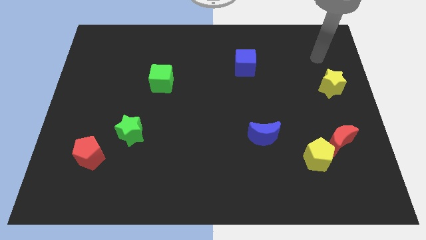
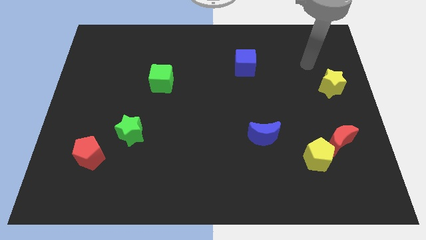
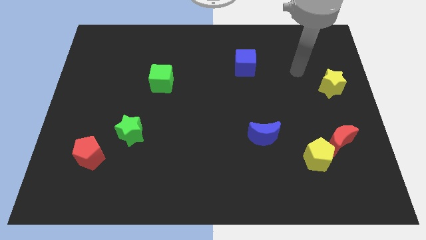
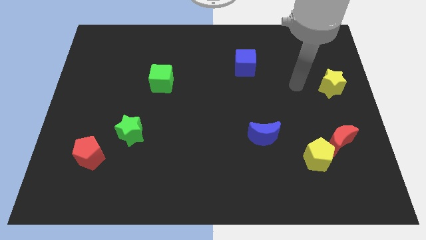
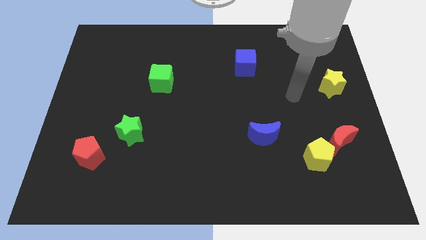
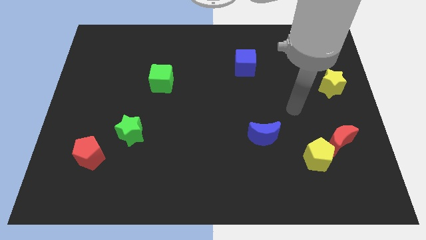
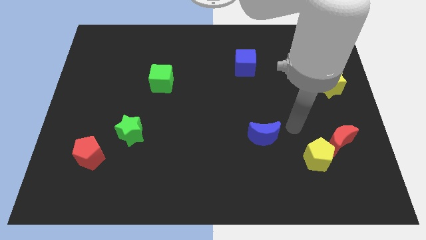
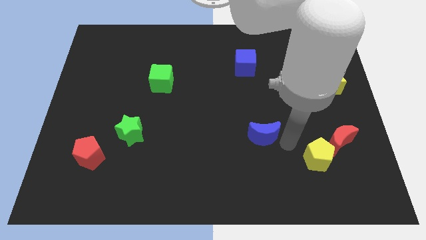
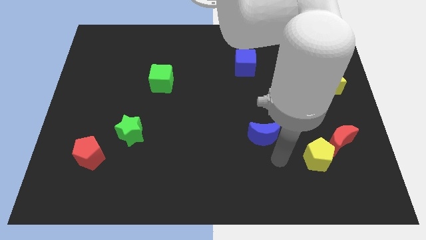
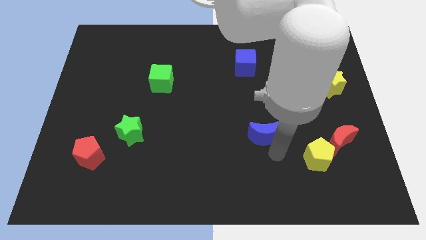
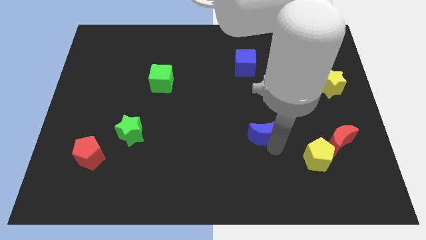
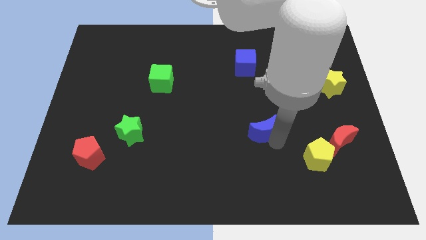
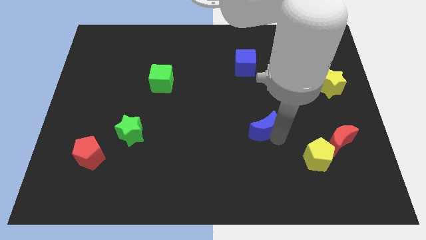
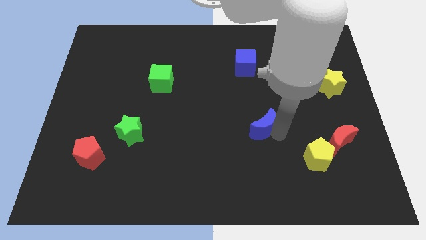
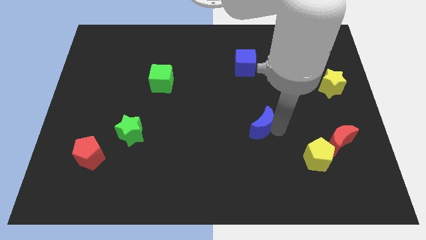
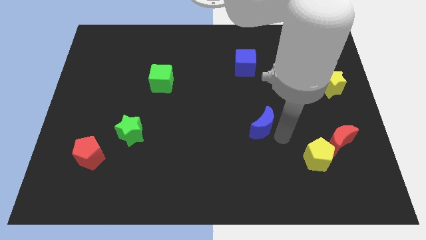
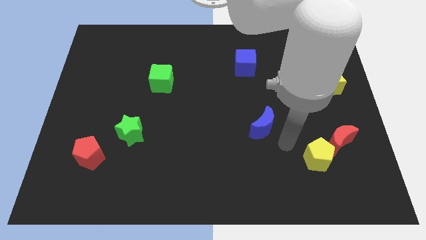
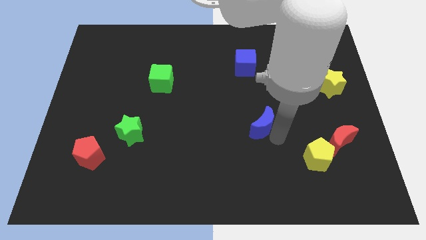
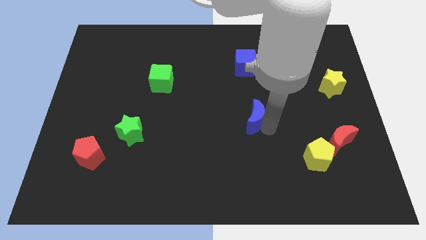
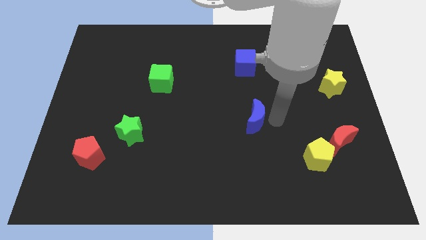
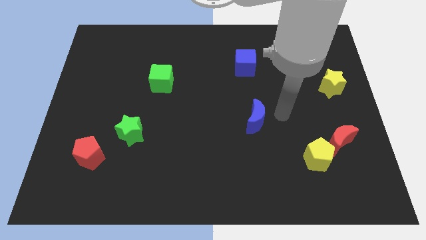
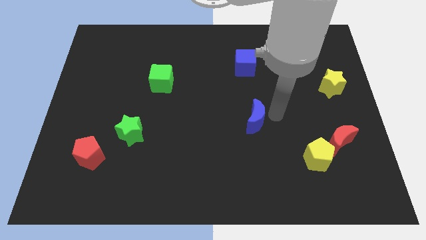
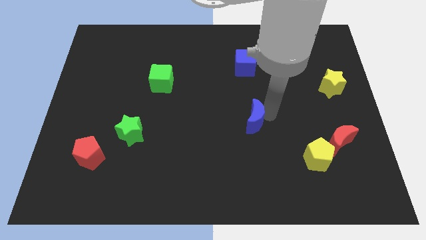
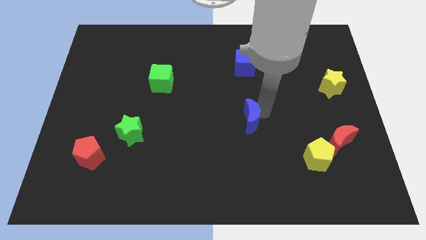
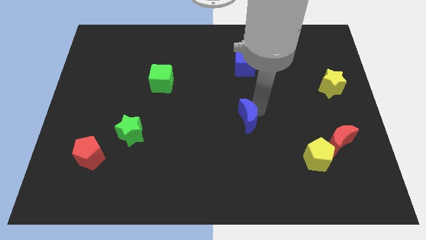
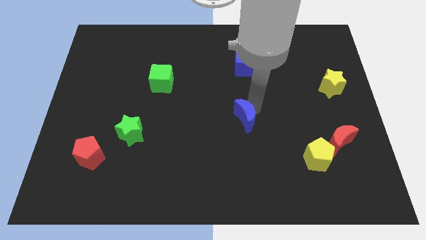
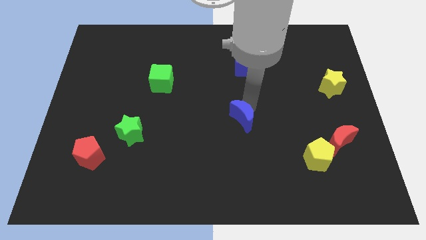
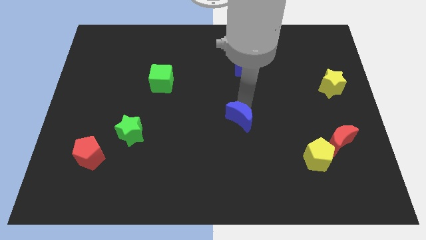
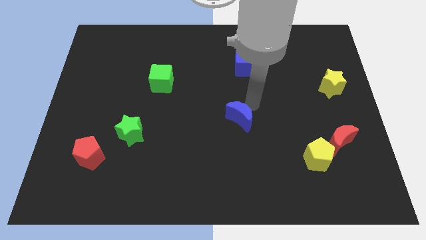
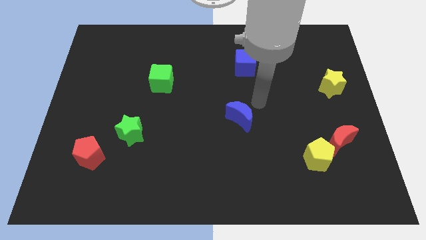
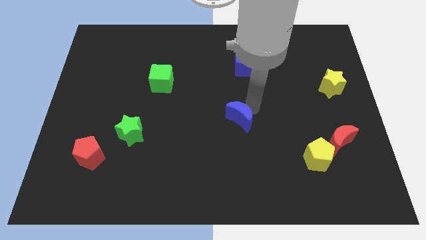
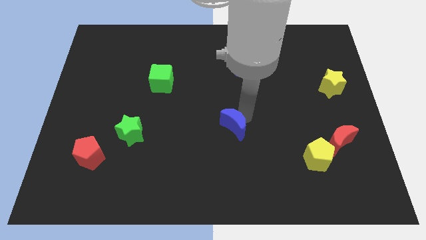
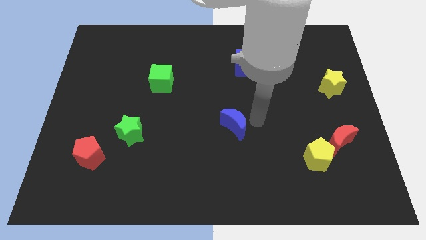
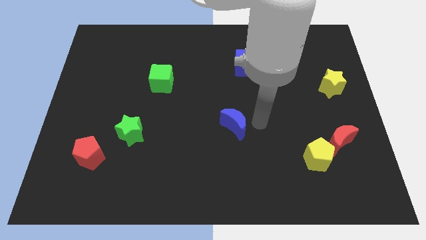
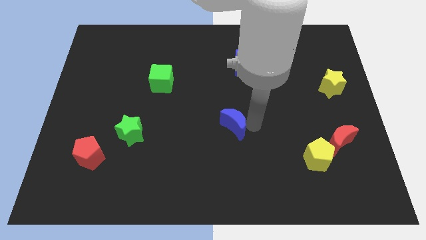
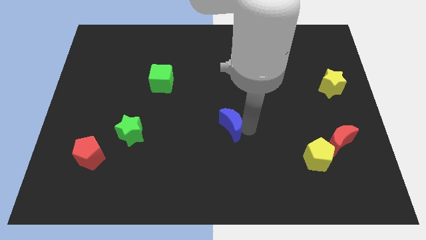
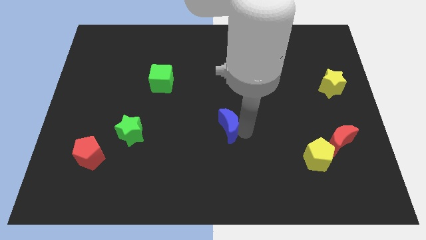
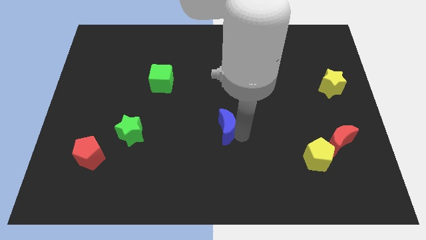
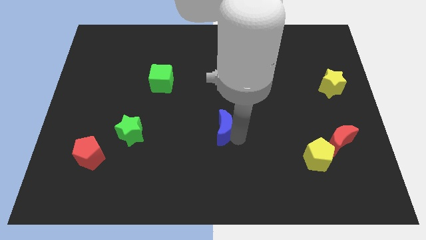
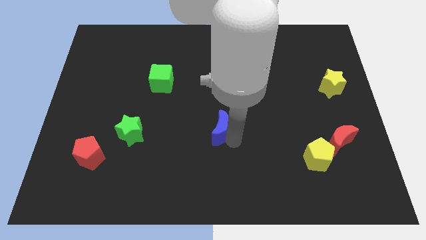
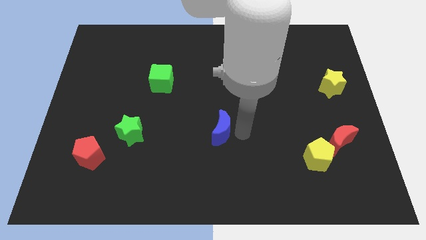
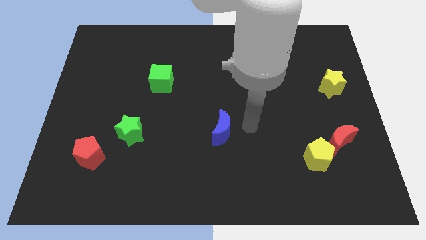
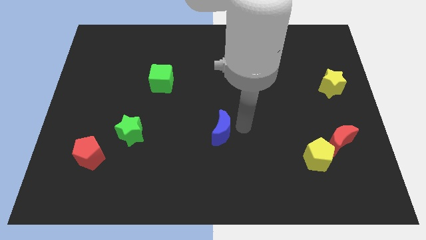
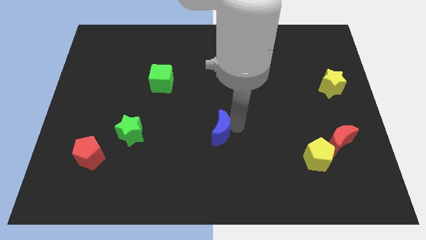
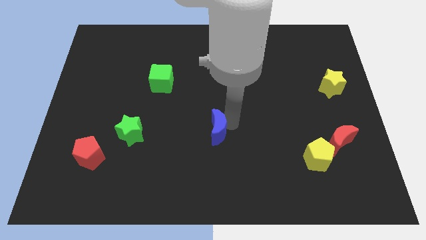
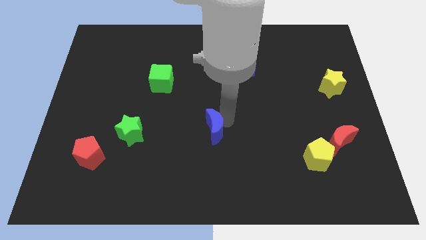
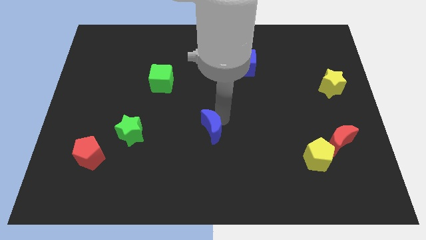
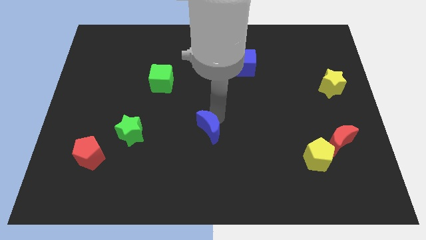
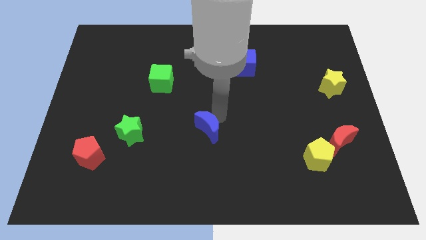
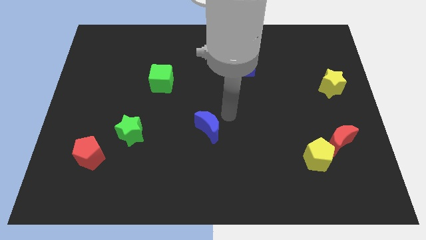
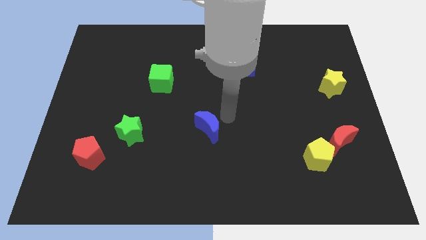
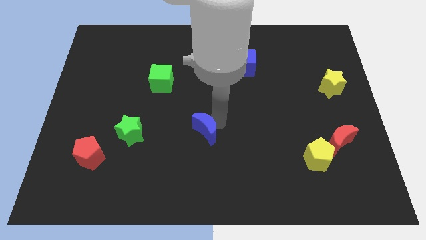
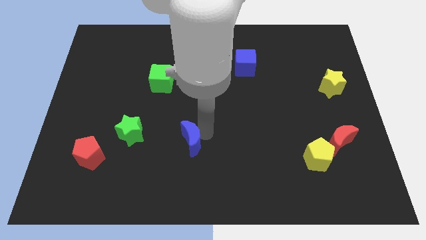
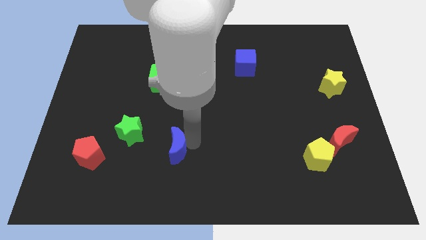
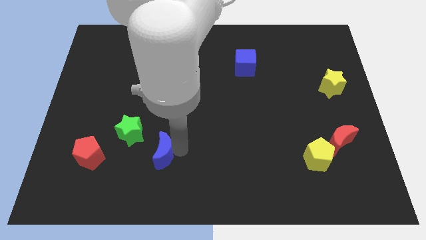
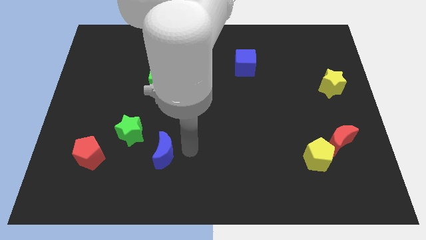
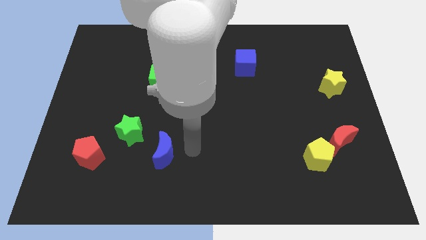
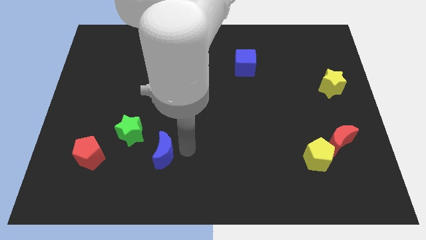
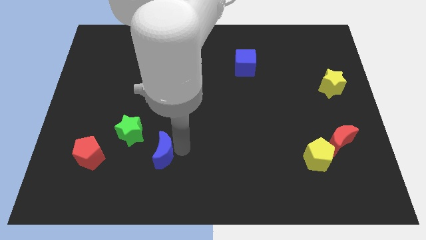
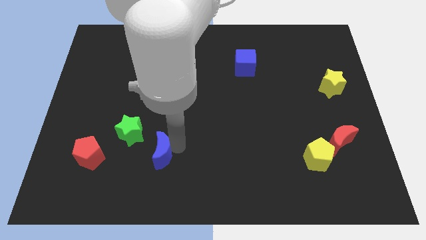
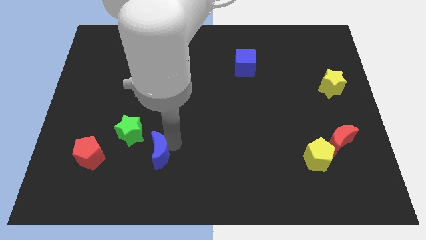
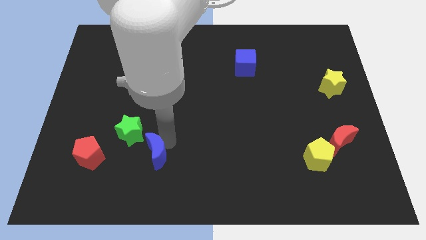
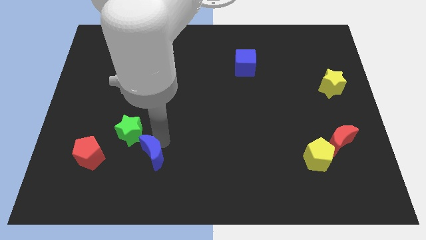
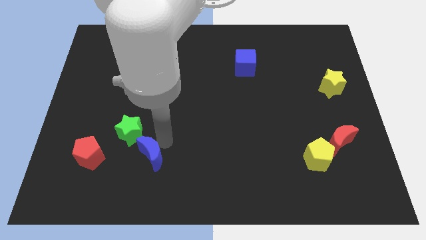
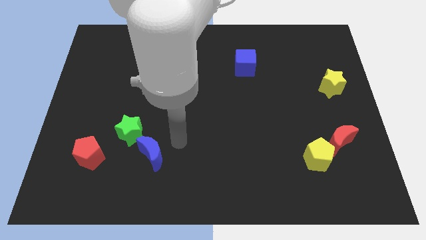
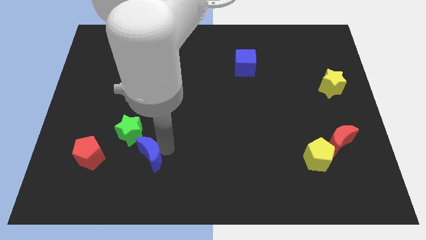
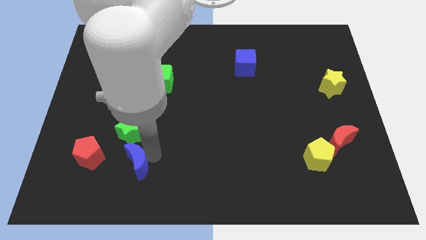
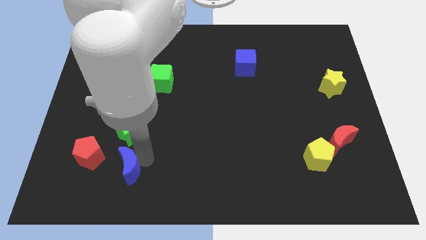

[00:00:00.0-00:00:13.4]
push the blue moon to the bottom right side of the red pentagon

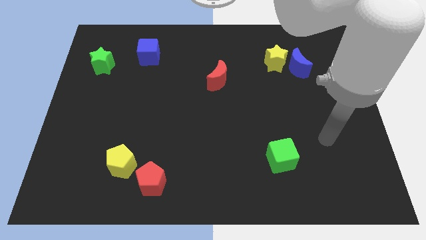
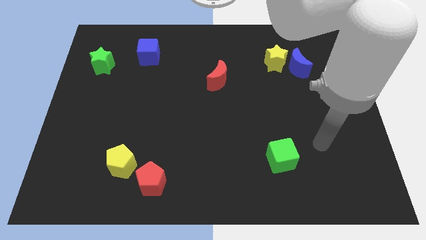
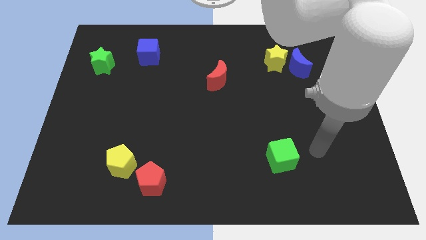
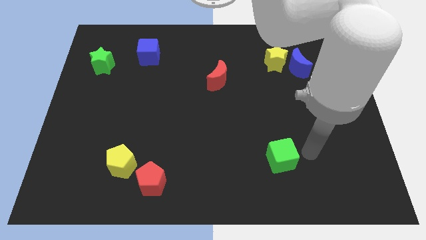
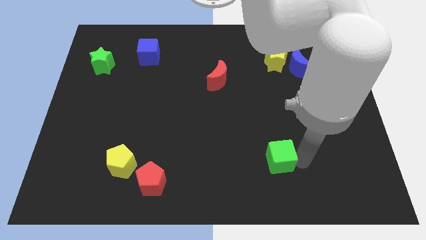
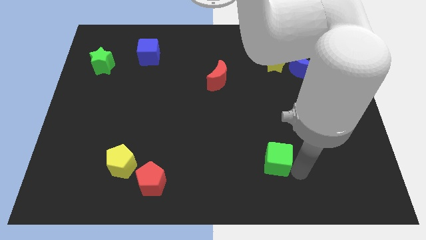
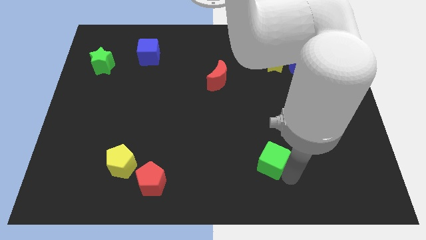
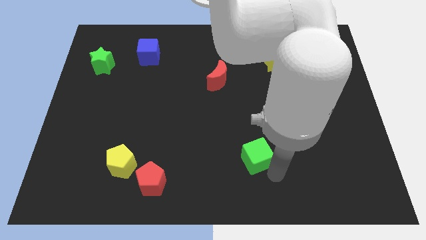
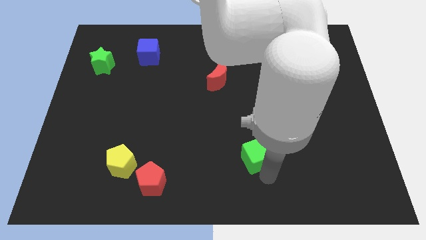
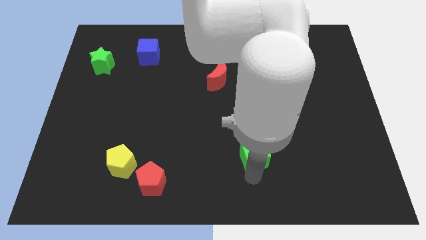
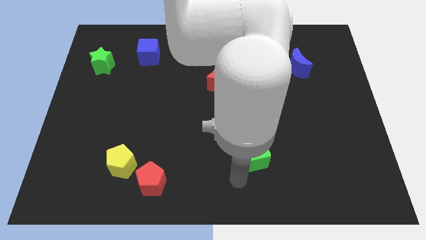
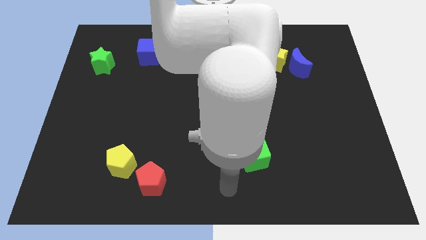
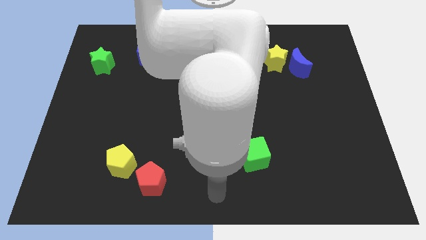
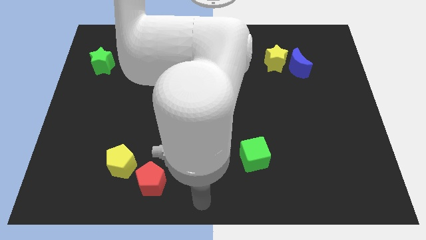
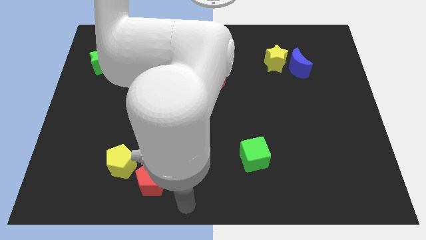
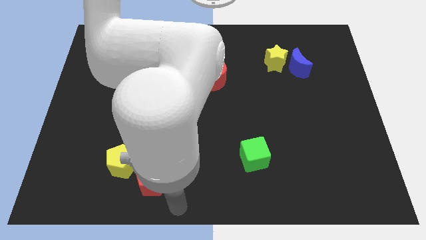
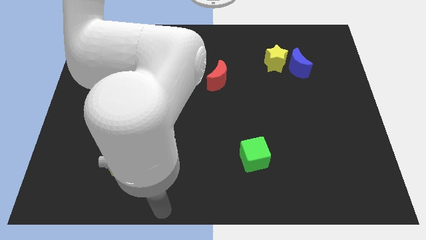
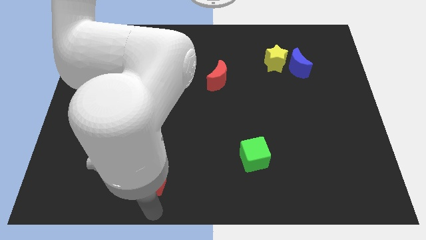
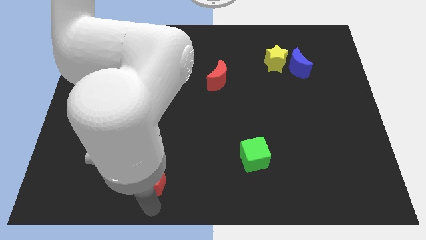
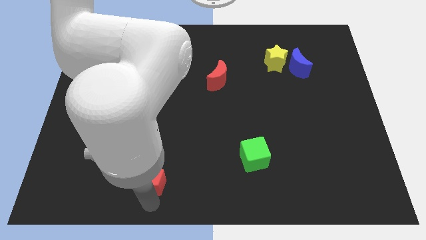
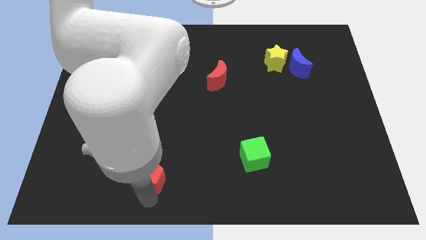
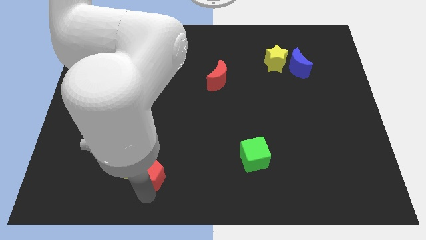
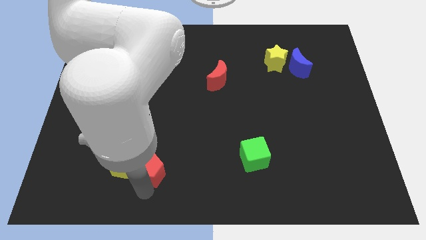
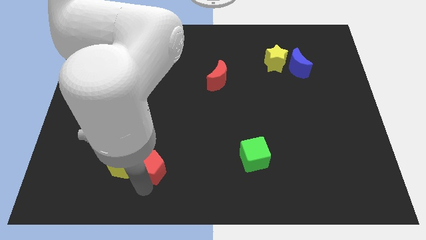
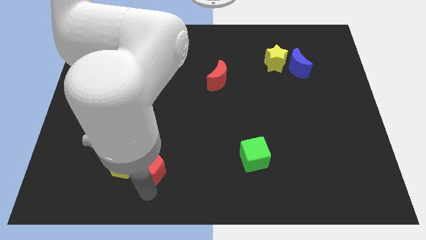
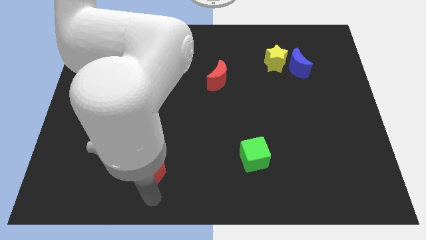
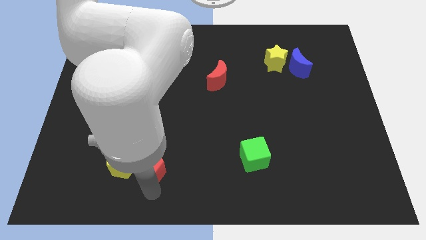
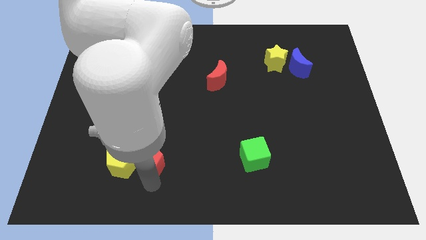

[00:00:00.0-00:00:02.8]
push the red pentagon to the top right of the yellow pentagon
